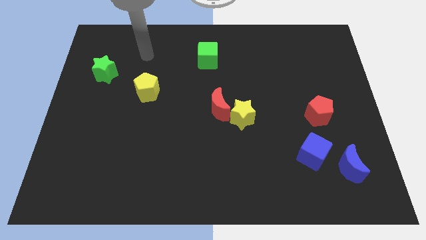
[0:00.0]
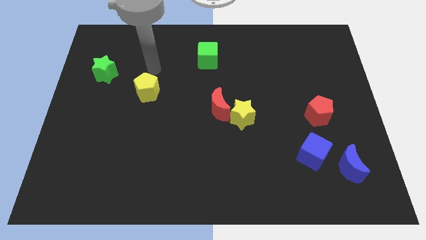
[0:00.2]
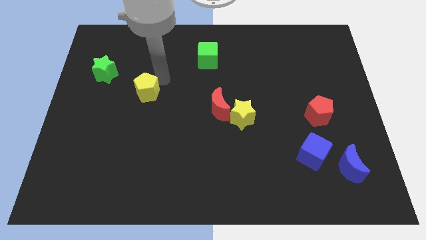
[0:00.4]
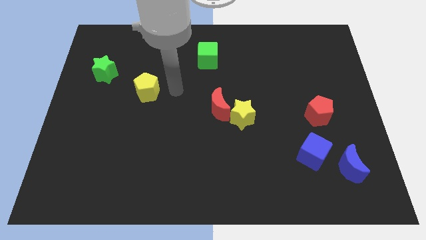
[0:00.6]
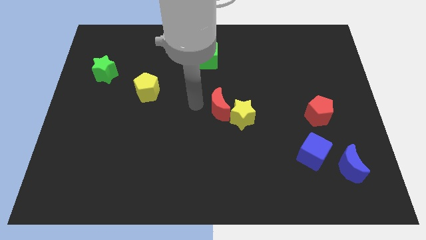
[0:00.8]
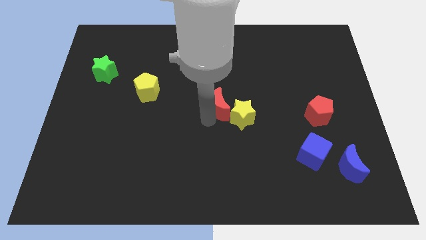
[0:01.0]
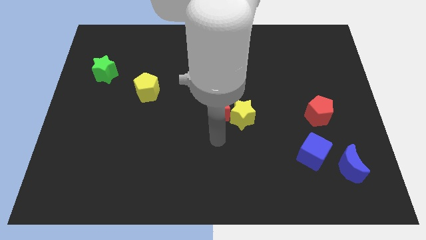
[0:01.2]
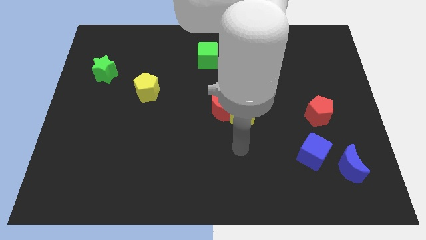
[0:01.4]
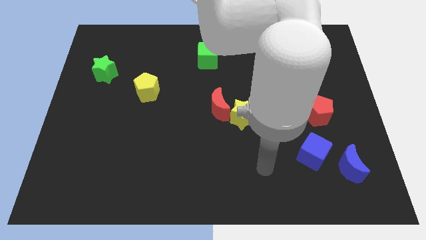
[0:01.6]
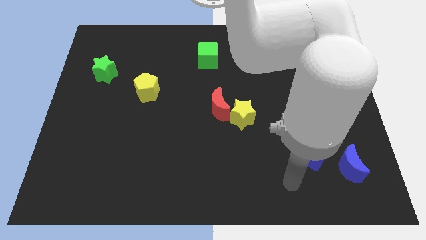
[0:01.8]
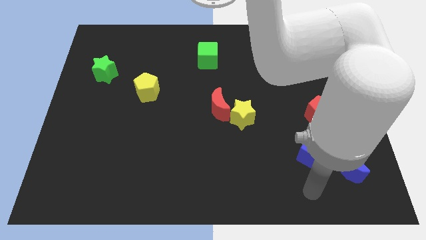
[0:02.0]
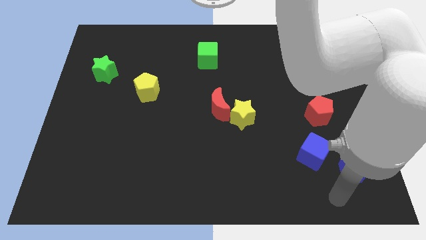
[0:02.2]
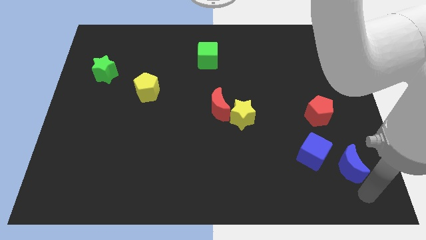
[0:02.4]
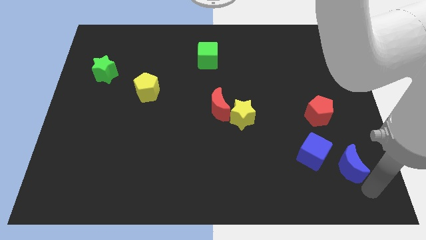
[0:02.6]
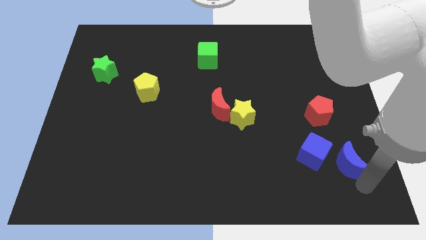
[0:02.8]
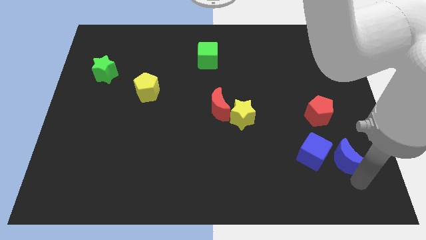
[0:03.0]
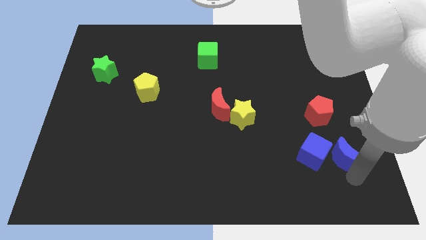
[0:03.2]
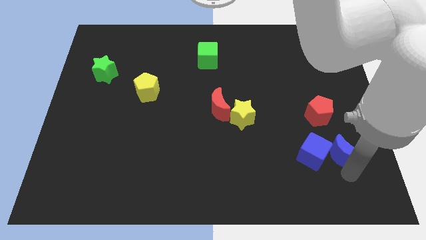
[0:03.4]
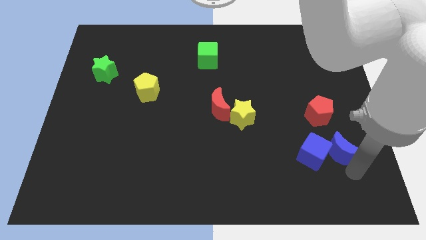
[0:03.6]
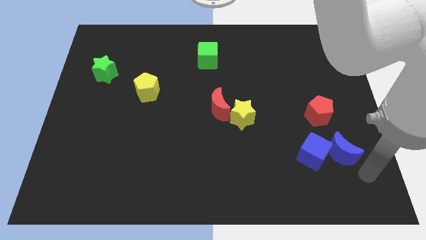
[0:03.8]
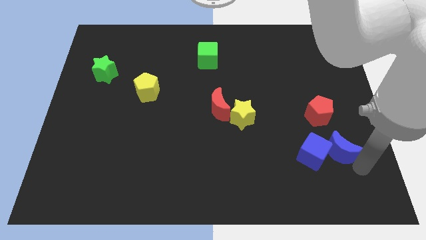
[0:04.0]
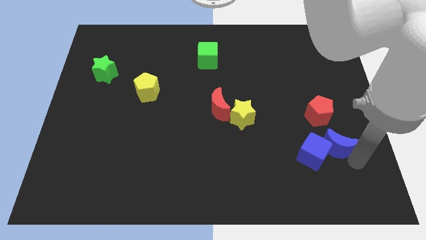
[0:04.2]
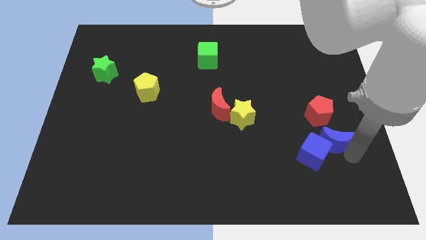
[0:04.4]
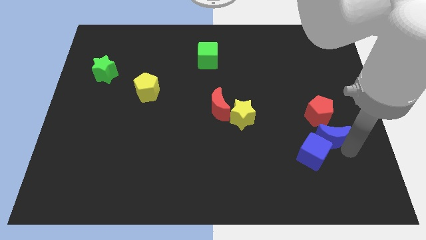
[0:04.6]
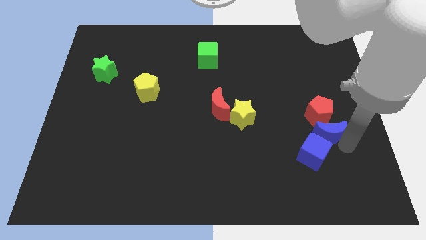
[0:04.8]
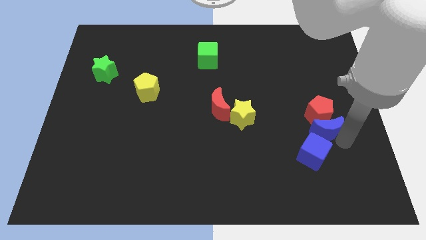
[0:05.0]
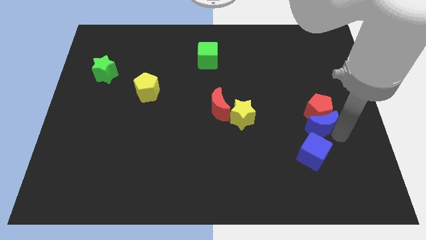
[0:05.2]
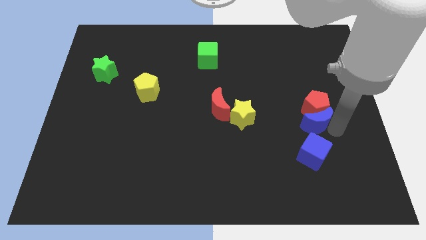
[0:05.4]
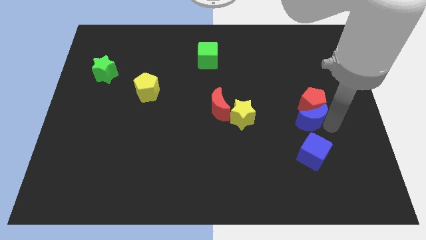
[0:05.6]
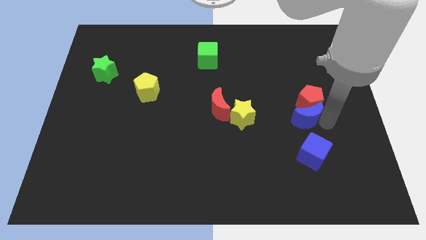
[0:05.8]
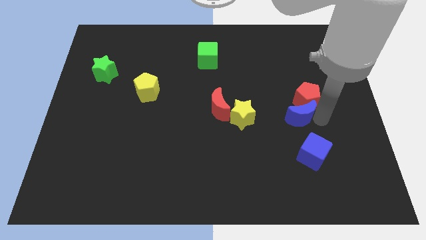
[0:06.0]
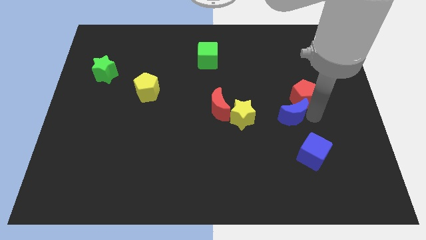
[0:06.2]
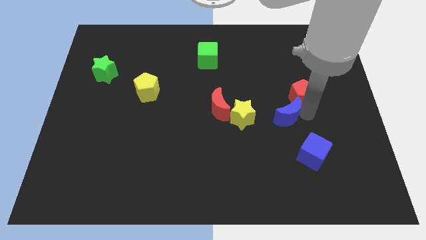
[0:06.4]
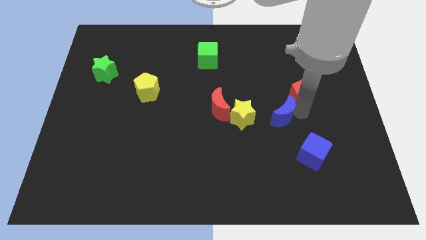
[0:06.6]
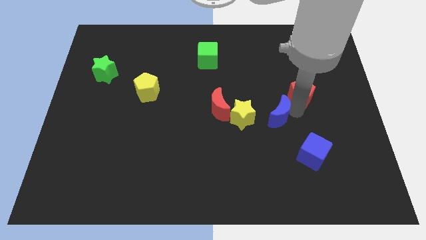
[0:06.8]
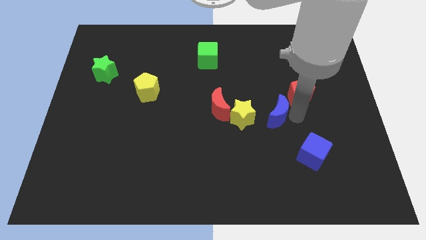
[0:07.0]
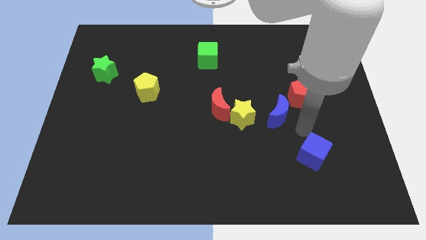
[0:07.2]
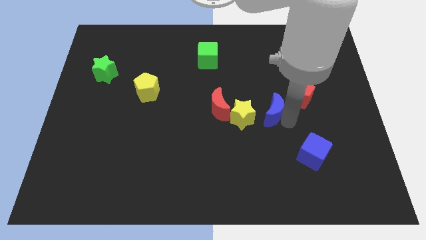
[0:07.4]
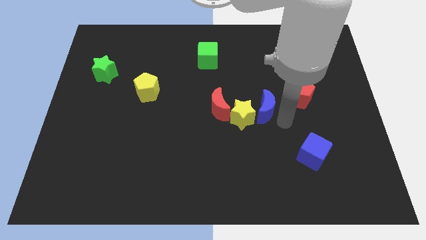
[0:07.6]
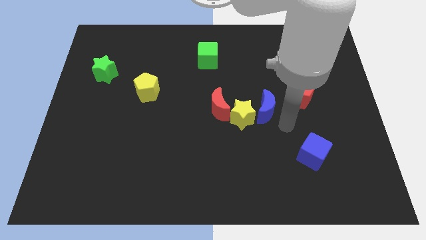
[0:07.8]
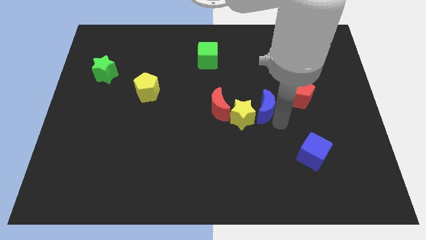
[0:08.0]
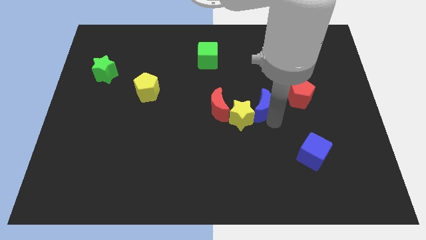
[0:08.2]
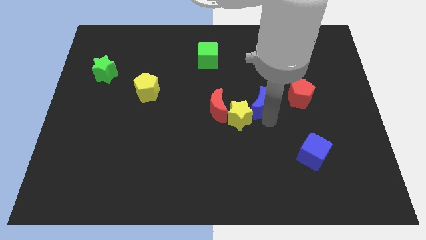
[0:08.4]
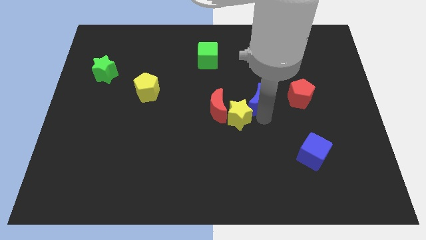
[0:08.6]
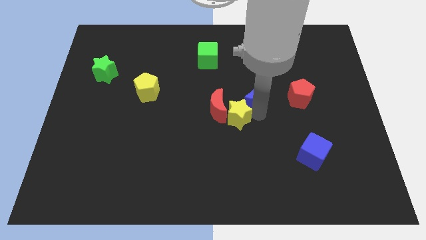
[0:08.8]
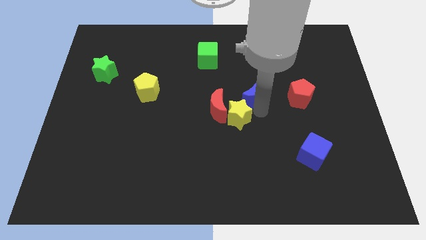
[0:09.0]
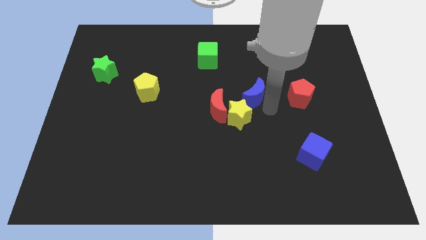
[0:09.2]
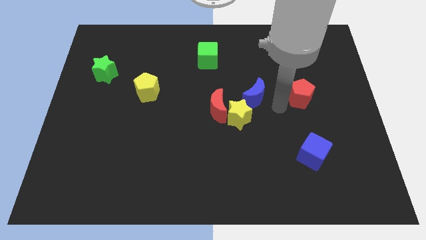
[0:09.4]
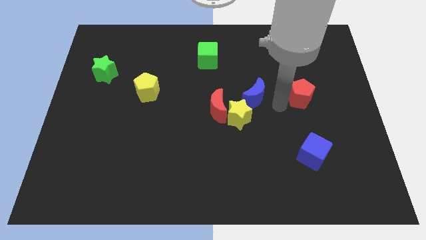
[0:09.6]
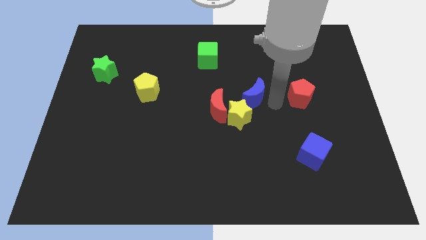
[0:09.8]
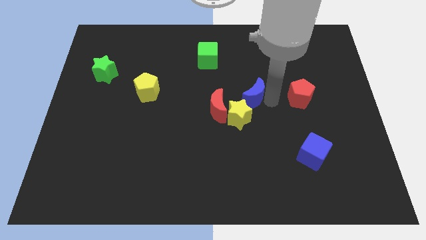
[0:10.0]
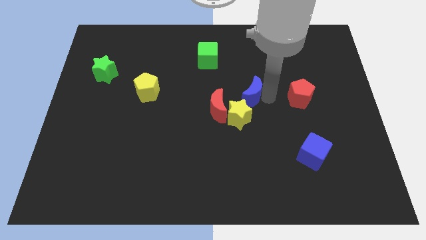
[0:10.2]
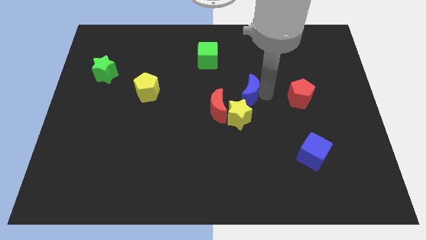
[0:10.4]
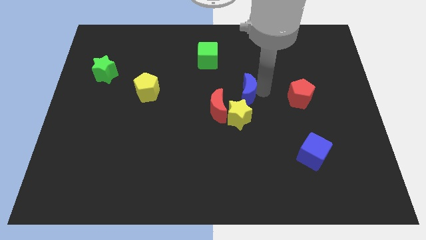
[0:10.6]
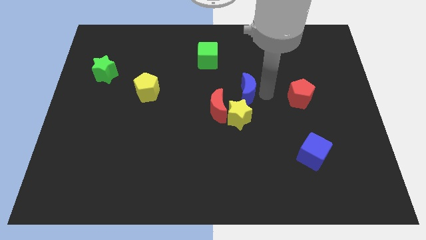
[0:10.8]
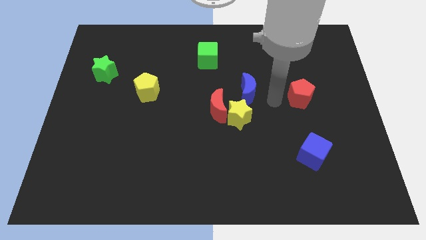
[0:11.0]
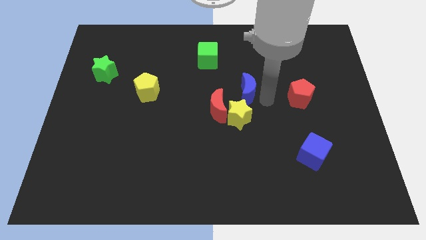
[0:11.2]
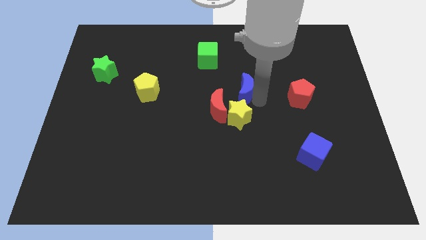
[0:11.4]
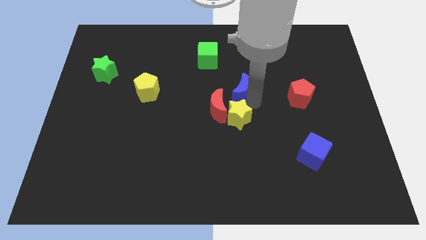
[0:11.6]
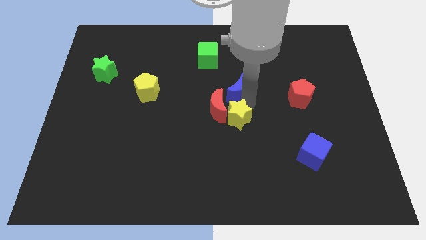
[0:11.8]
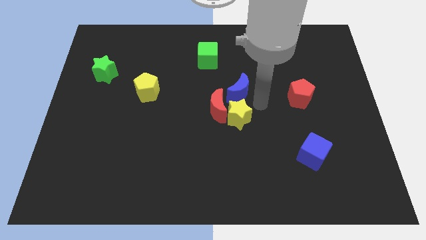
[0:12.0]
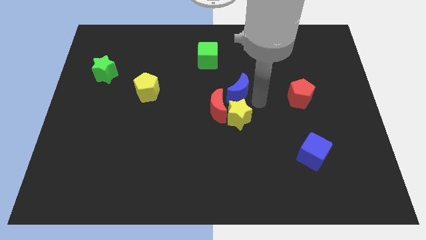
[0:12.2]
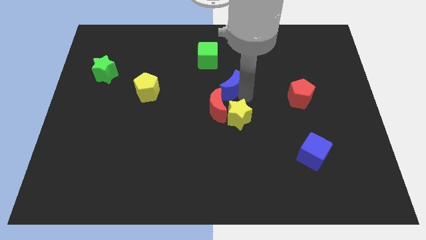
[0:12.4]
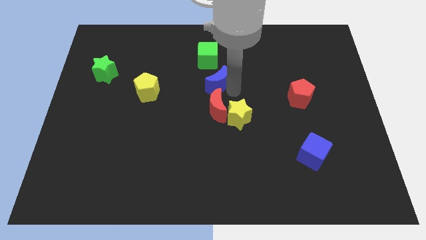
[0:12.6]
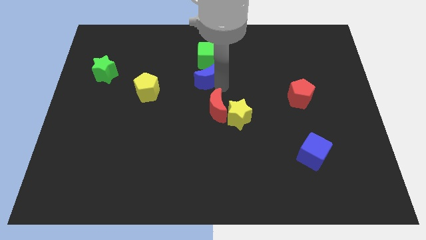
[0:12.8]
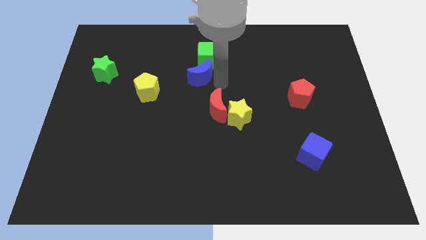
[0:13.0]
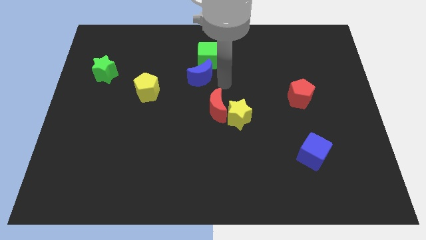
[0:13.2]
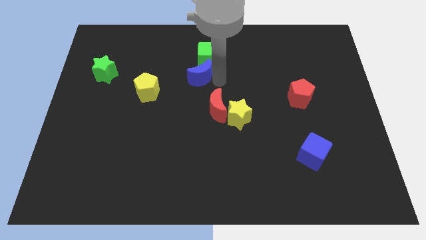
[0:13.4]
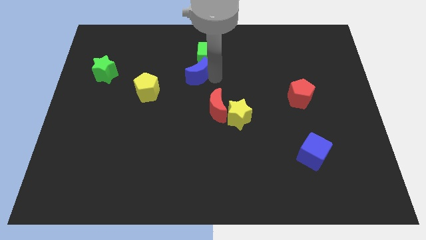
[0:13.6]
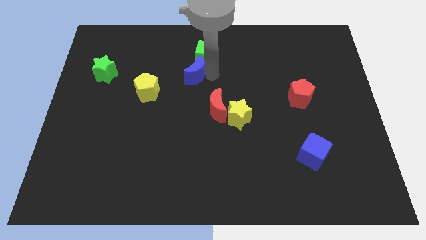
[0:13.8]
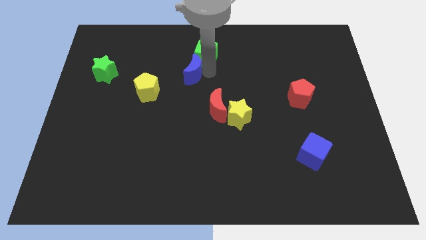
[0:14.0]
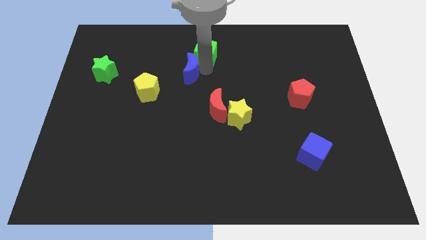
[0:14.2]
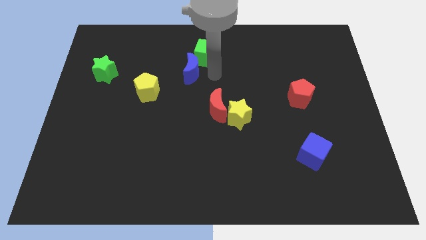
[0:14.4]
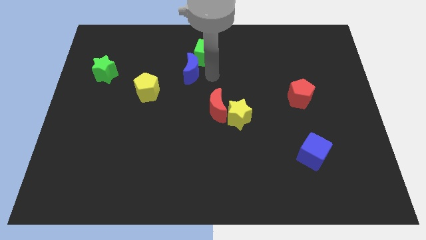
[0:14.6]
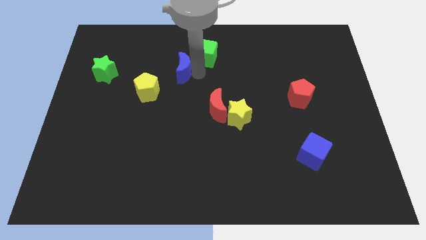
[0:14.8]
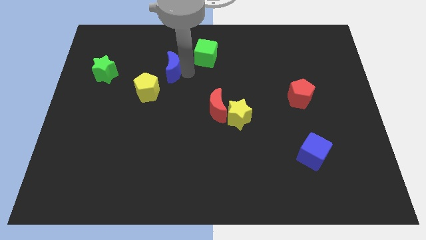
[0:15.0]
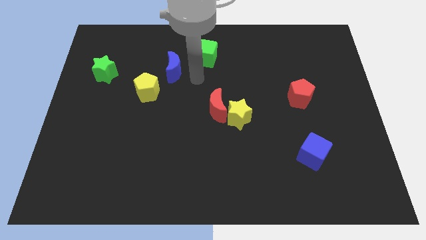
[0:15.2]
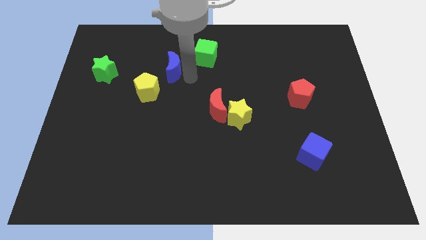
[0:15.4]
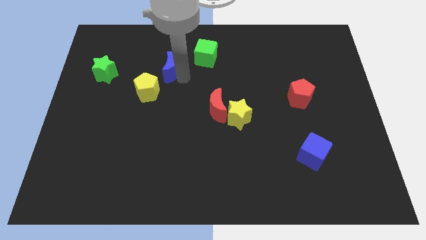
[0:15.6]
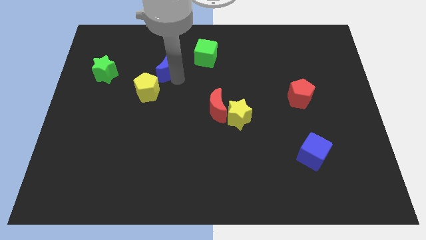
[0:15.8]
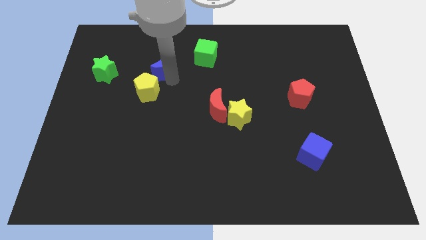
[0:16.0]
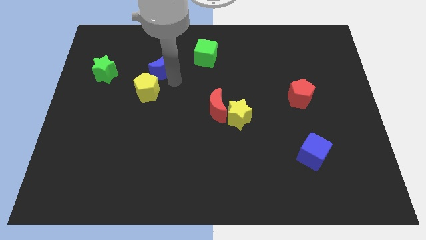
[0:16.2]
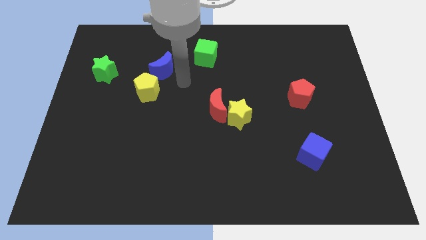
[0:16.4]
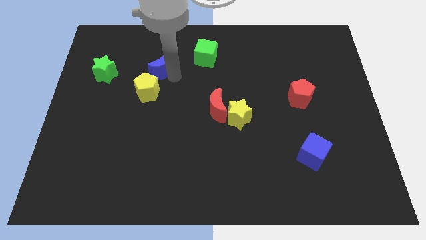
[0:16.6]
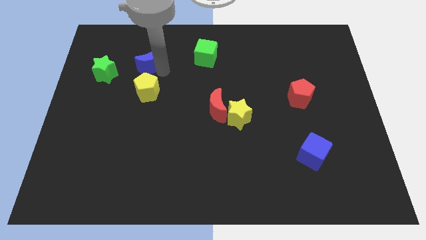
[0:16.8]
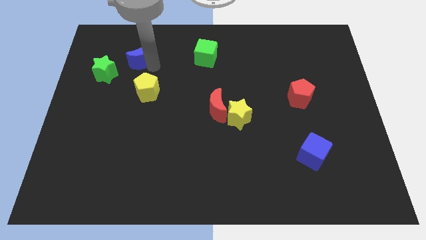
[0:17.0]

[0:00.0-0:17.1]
move the blue moon diagonally up and to the right of the green star
